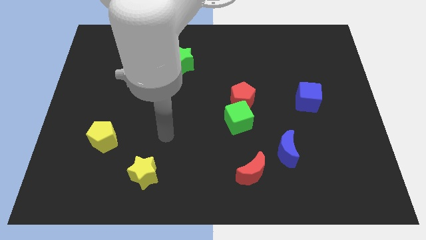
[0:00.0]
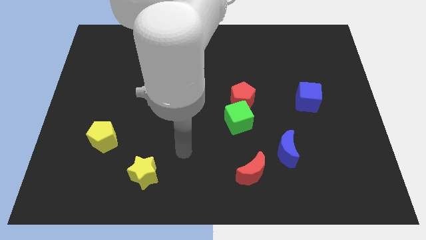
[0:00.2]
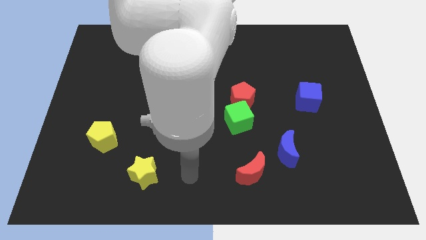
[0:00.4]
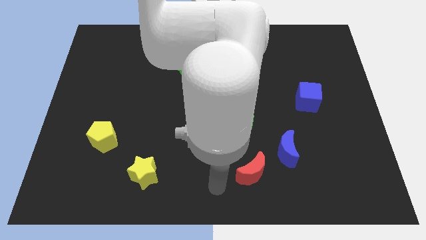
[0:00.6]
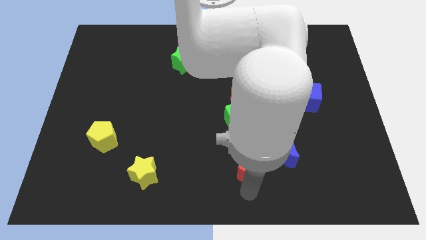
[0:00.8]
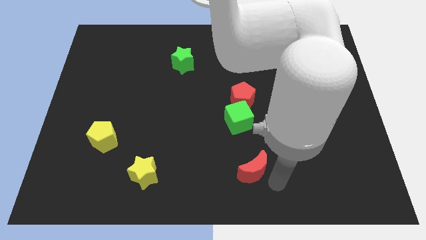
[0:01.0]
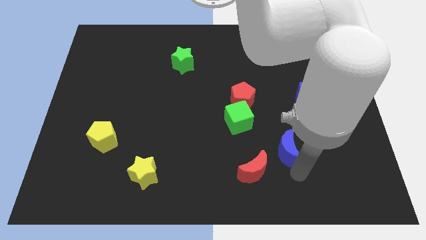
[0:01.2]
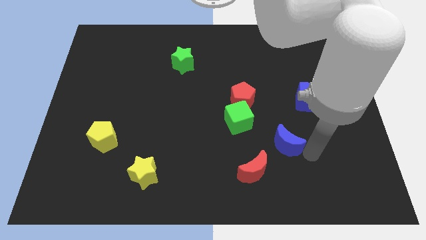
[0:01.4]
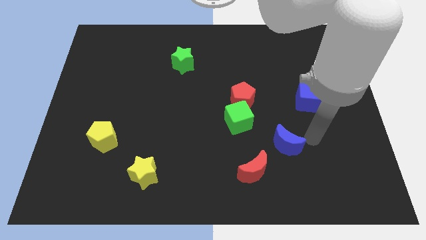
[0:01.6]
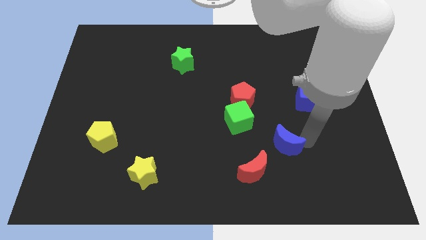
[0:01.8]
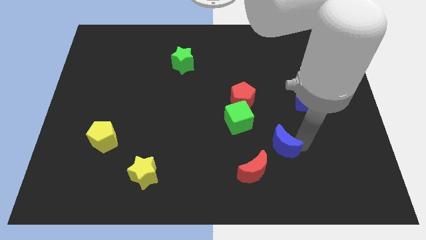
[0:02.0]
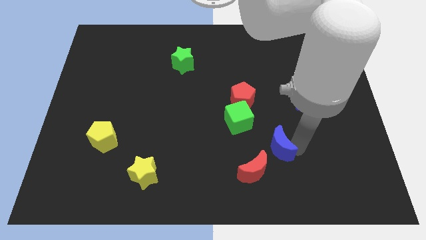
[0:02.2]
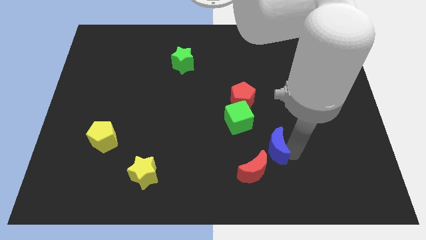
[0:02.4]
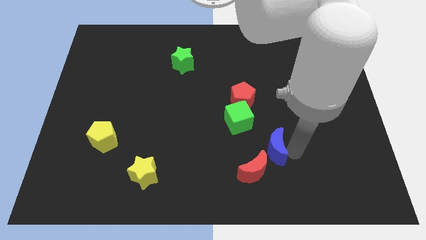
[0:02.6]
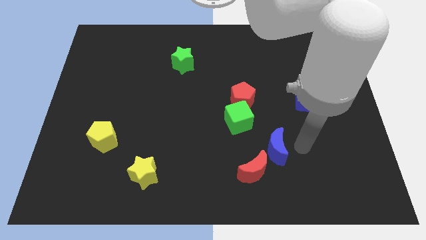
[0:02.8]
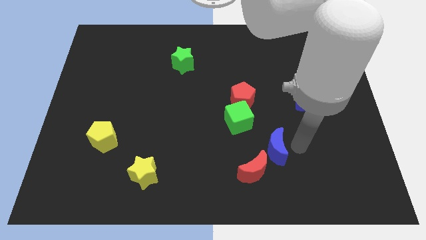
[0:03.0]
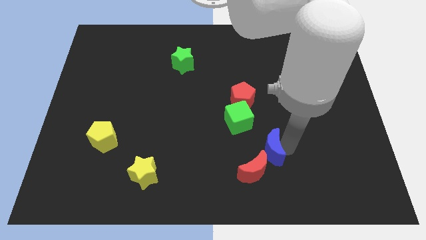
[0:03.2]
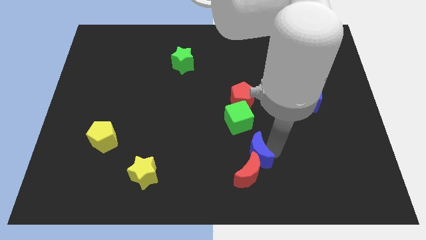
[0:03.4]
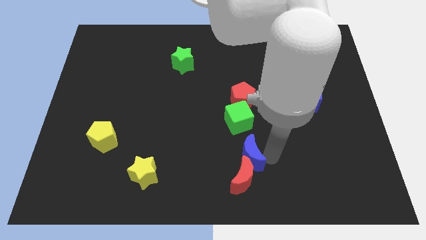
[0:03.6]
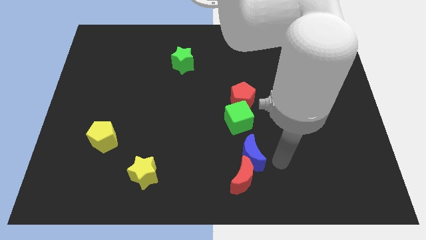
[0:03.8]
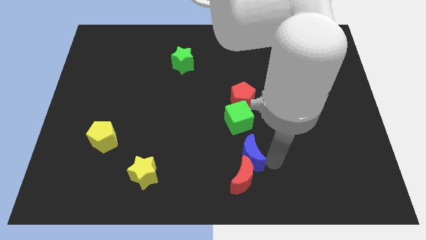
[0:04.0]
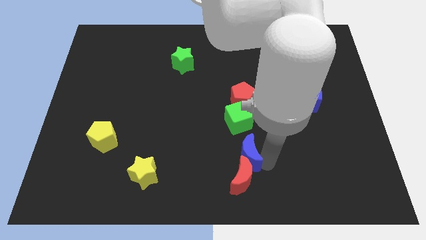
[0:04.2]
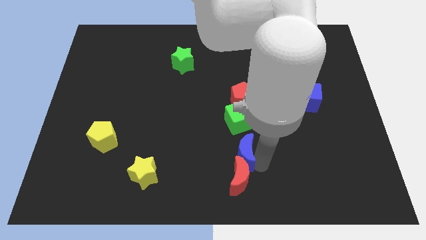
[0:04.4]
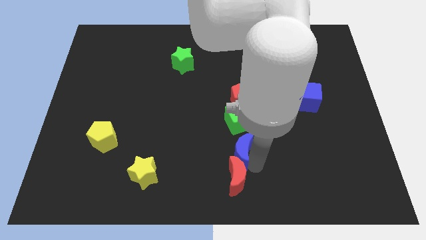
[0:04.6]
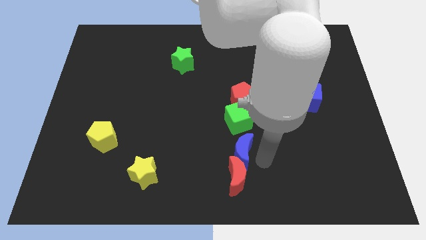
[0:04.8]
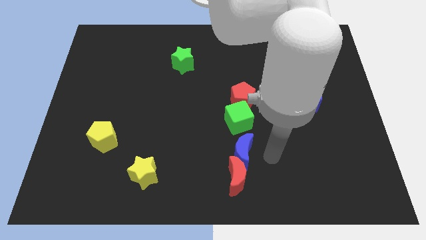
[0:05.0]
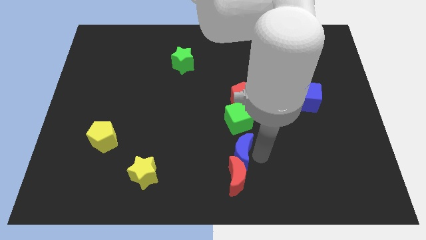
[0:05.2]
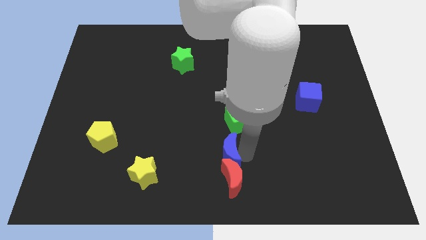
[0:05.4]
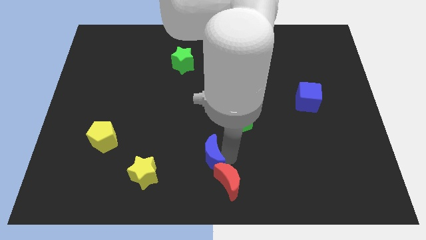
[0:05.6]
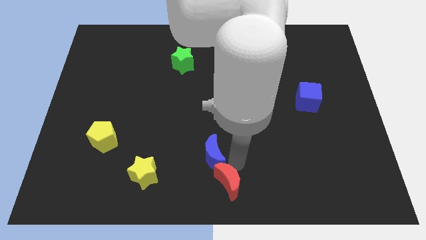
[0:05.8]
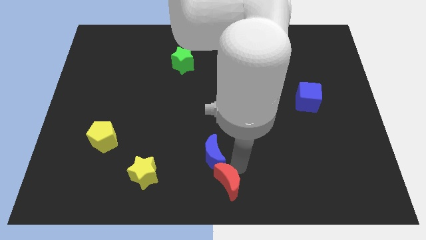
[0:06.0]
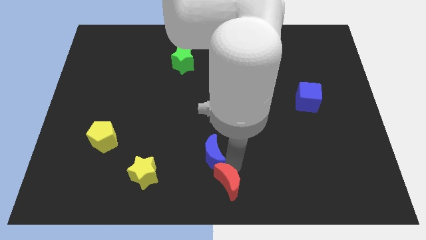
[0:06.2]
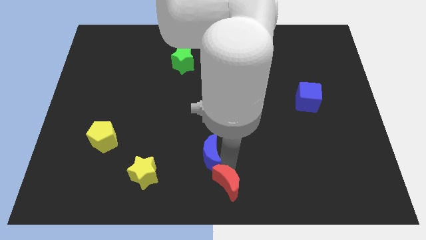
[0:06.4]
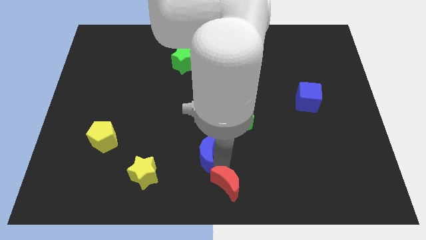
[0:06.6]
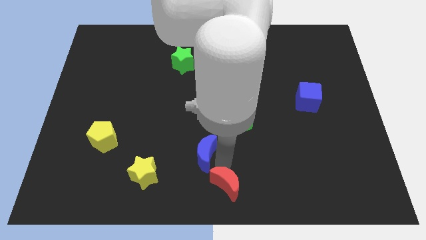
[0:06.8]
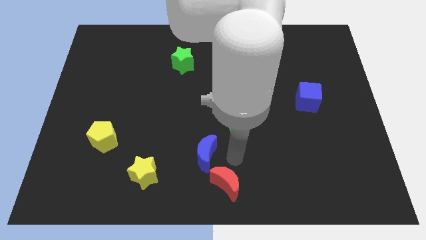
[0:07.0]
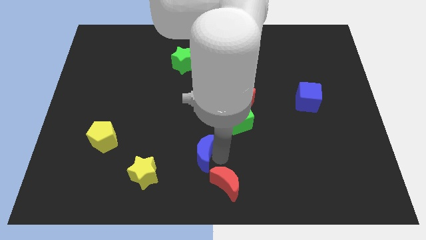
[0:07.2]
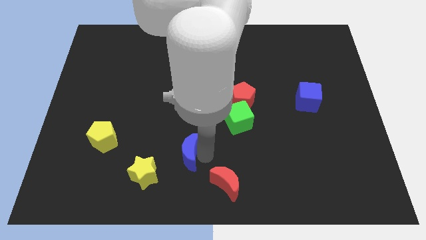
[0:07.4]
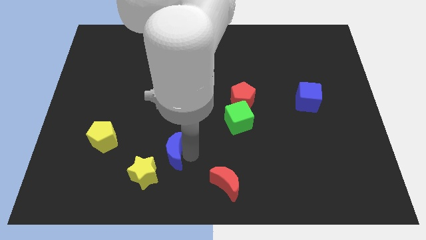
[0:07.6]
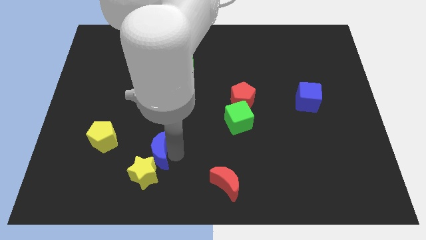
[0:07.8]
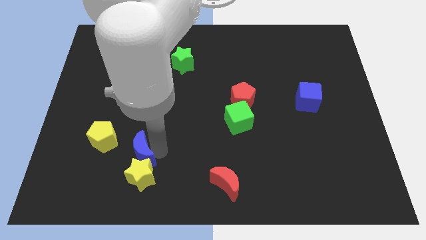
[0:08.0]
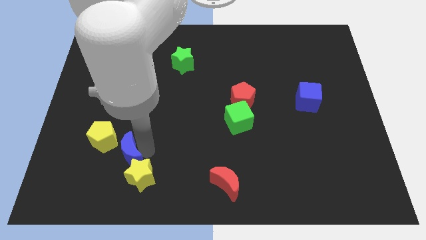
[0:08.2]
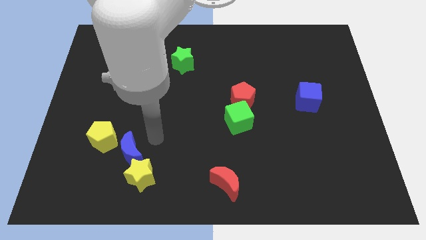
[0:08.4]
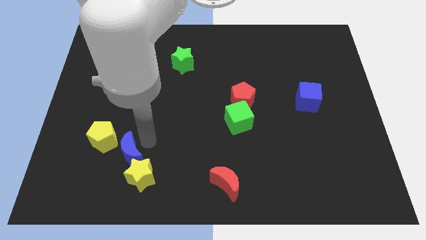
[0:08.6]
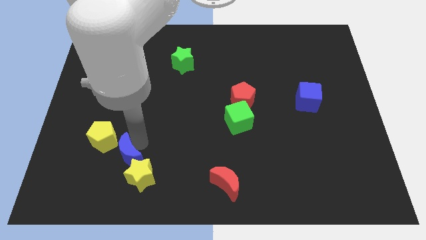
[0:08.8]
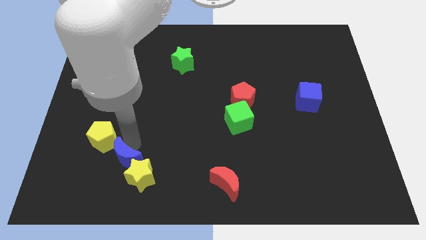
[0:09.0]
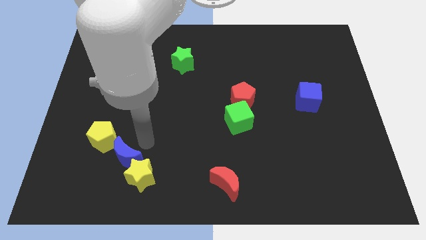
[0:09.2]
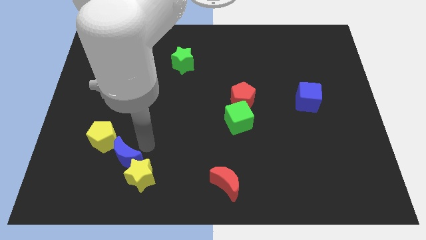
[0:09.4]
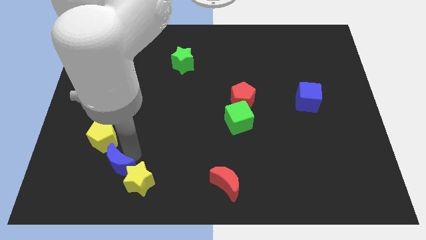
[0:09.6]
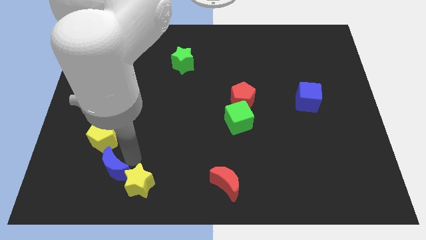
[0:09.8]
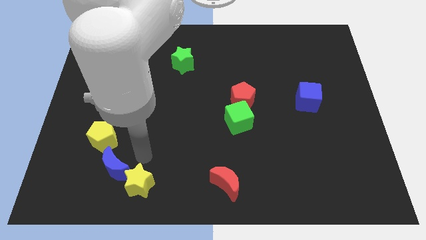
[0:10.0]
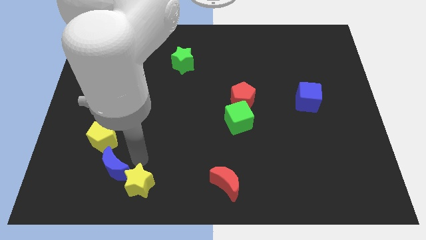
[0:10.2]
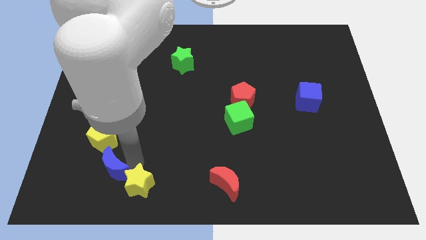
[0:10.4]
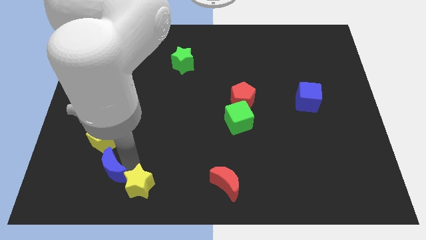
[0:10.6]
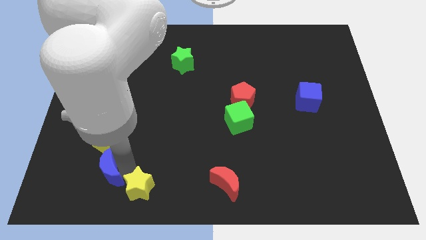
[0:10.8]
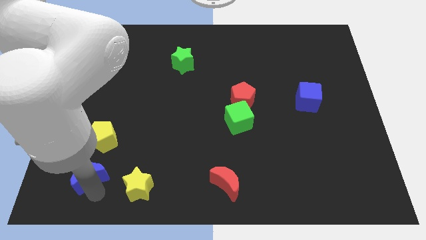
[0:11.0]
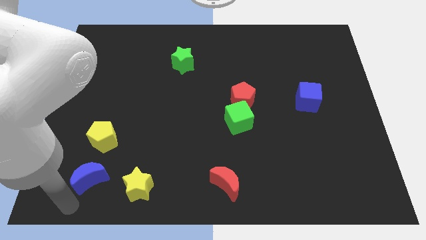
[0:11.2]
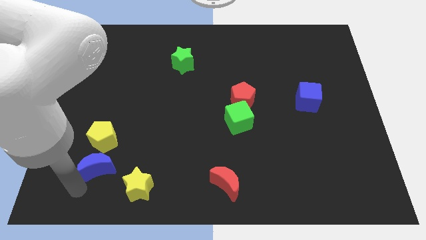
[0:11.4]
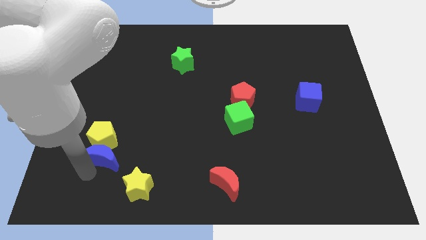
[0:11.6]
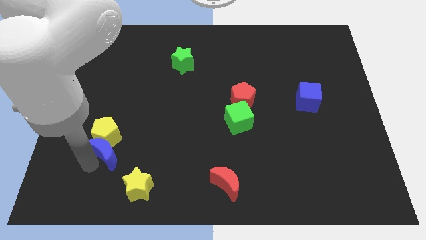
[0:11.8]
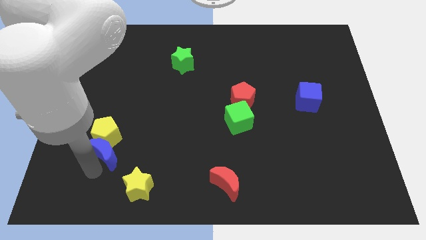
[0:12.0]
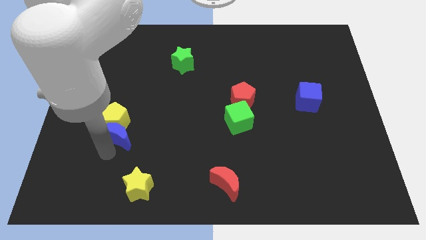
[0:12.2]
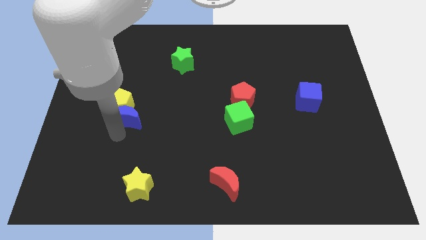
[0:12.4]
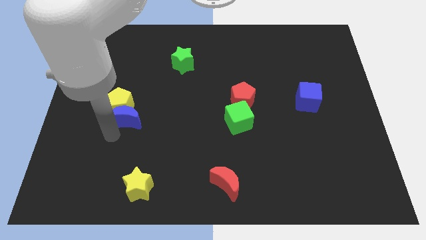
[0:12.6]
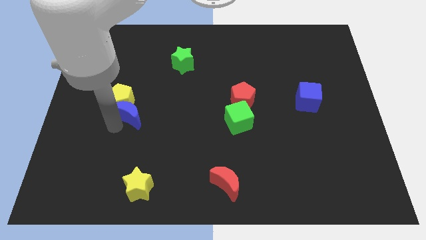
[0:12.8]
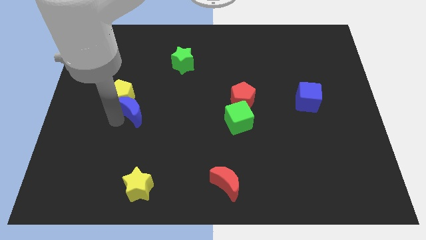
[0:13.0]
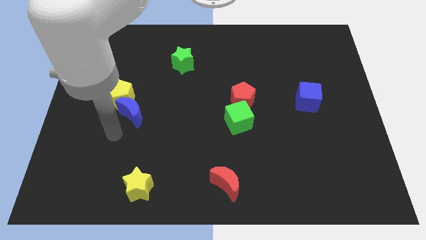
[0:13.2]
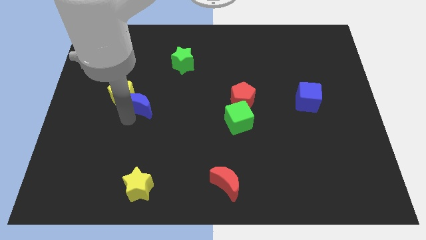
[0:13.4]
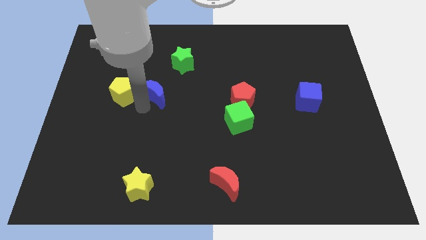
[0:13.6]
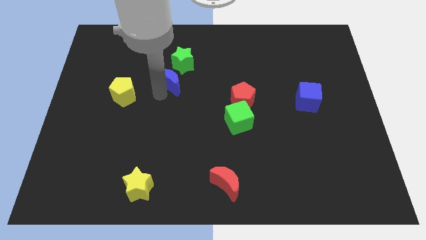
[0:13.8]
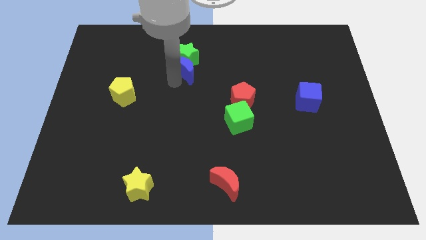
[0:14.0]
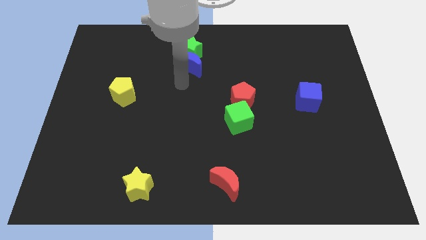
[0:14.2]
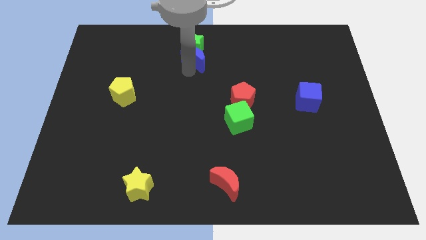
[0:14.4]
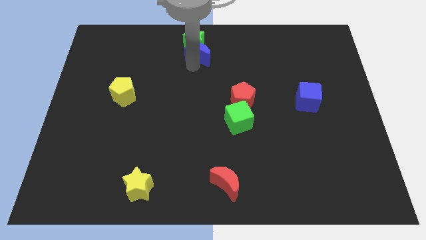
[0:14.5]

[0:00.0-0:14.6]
slide the blue moon to the top side

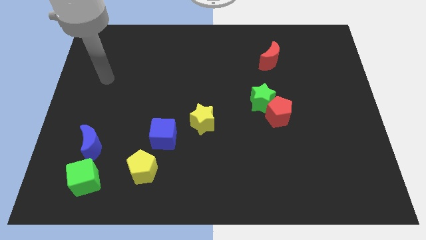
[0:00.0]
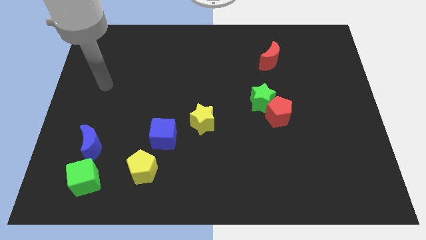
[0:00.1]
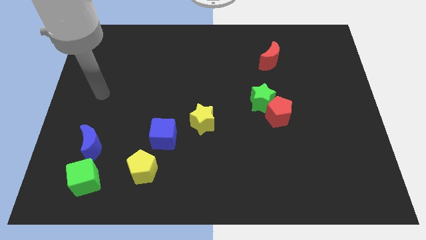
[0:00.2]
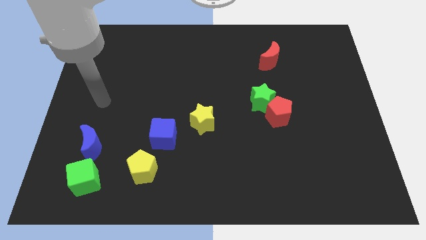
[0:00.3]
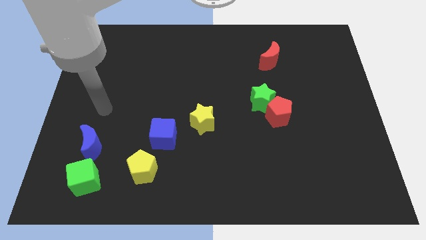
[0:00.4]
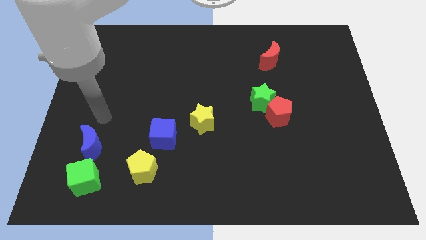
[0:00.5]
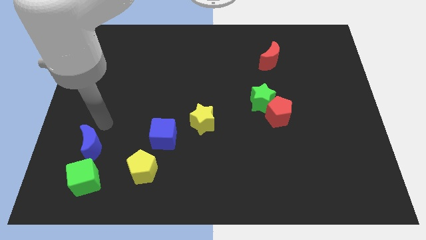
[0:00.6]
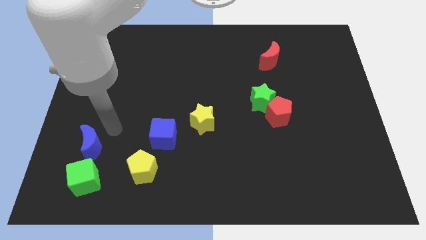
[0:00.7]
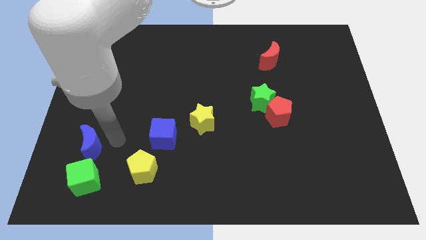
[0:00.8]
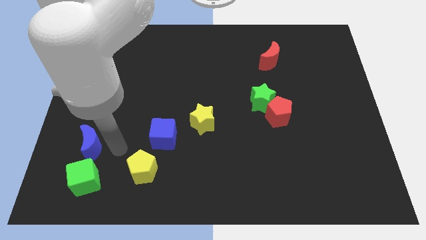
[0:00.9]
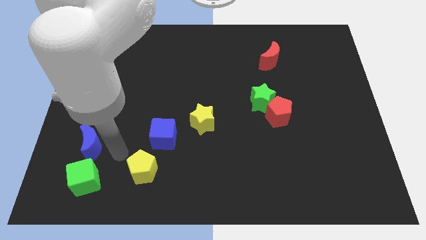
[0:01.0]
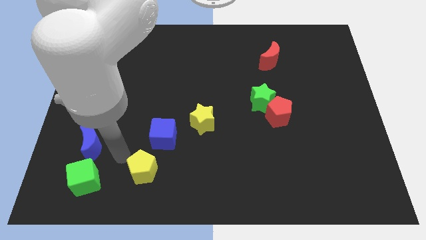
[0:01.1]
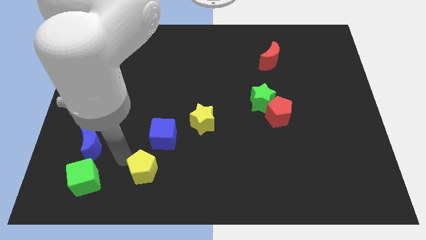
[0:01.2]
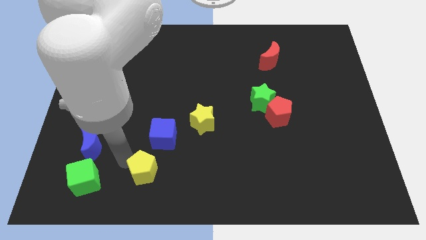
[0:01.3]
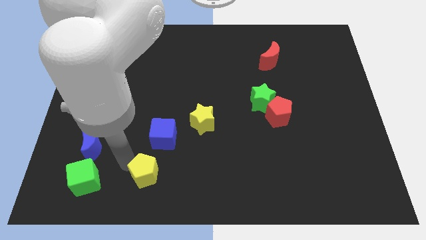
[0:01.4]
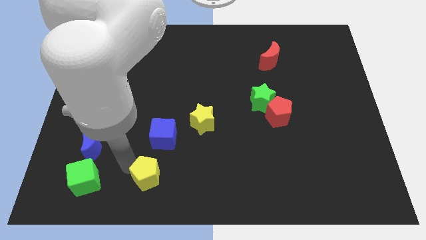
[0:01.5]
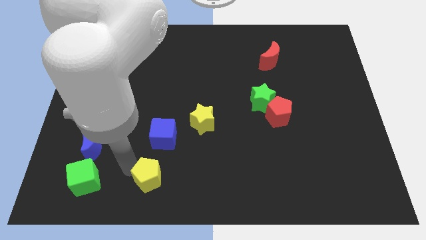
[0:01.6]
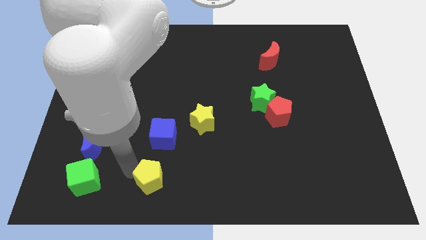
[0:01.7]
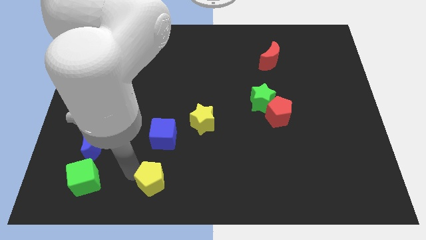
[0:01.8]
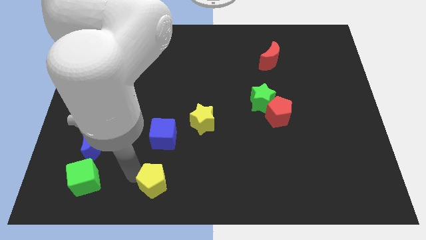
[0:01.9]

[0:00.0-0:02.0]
push the yellow pentagon to the bottom side
